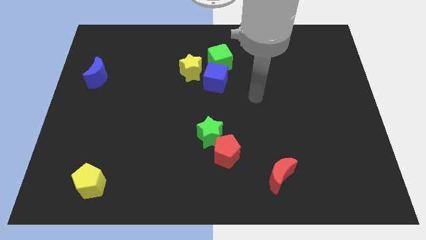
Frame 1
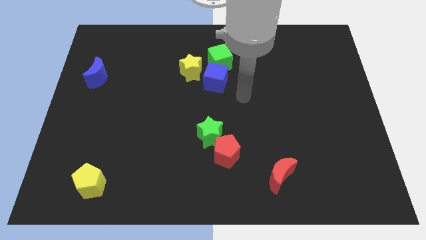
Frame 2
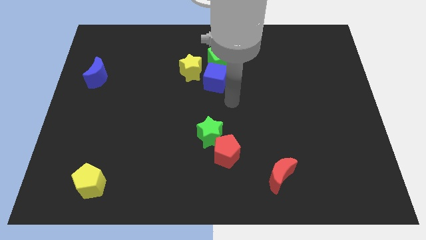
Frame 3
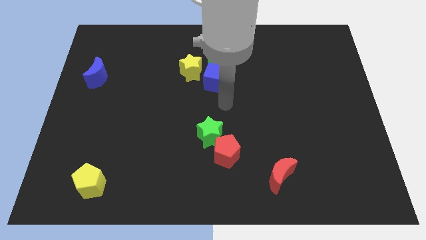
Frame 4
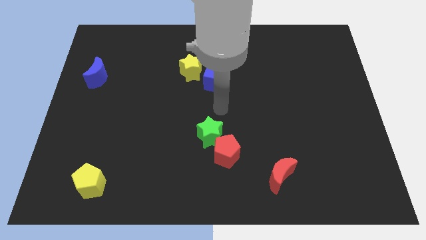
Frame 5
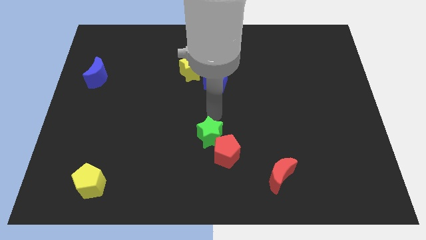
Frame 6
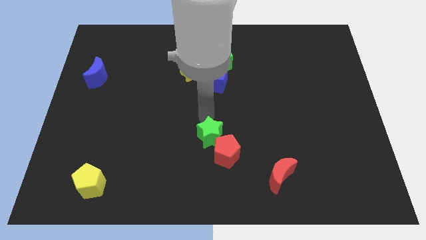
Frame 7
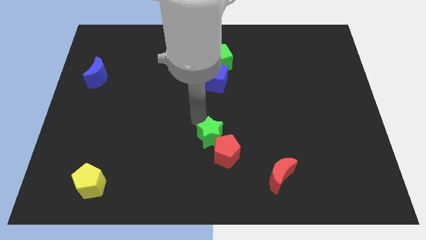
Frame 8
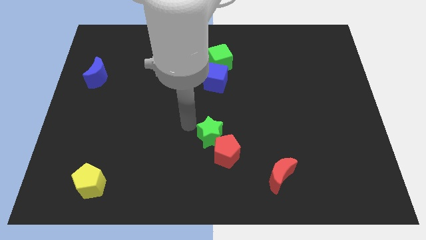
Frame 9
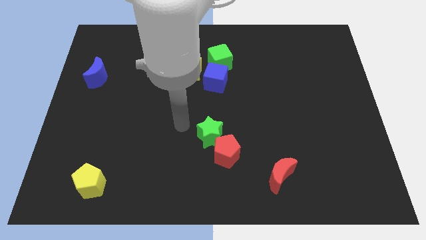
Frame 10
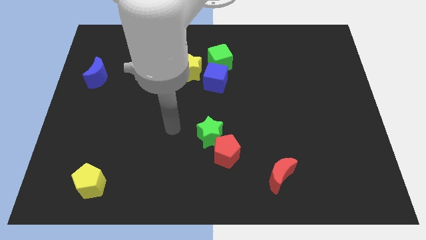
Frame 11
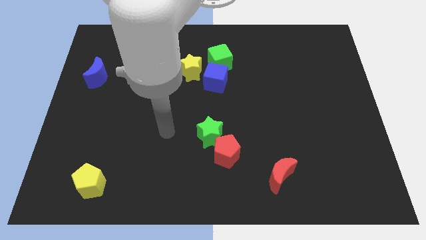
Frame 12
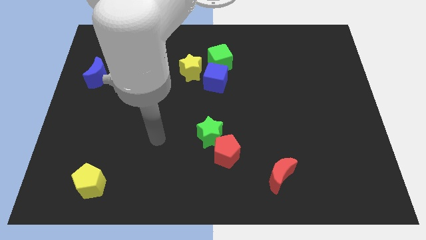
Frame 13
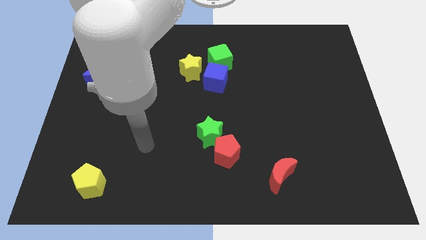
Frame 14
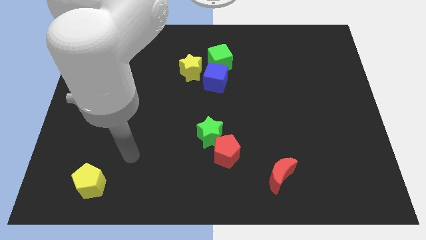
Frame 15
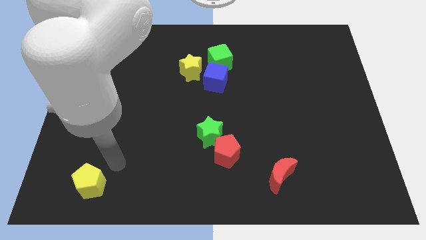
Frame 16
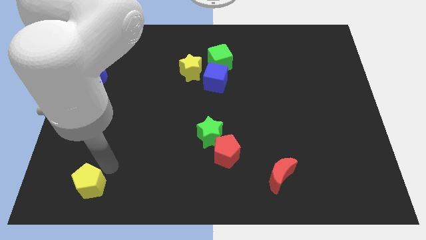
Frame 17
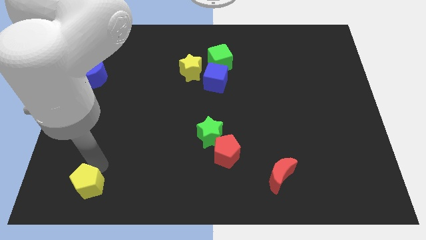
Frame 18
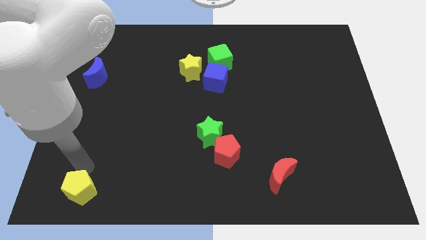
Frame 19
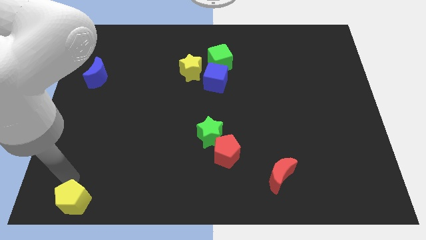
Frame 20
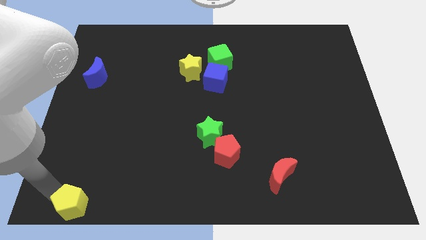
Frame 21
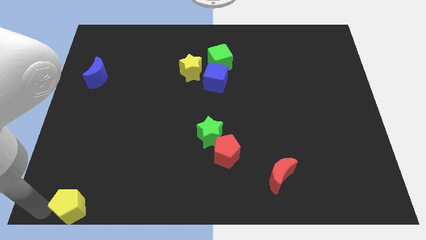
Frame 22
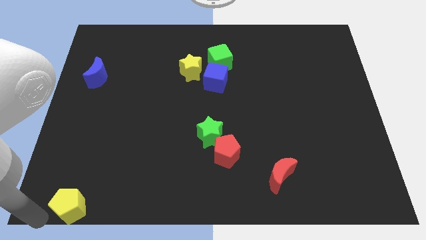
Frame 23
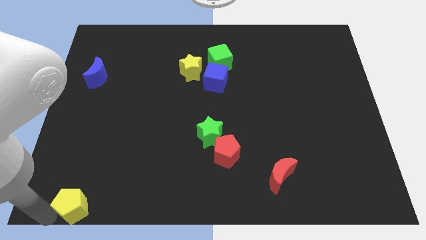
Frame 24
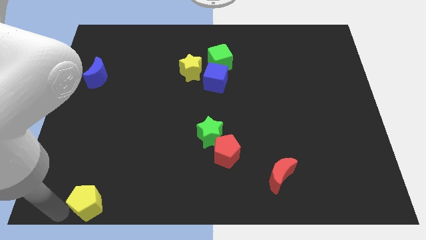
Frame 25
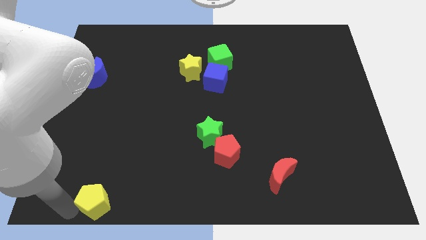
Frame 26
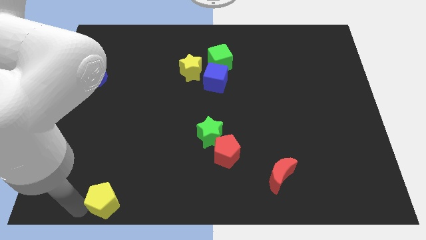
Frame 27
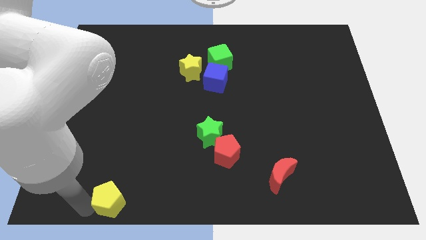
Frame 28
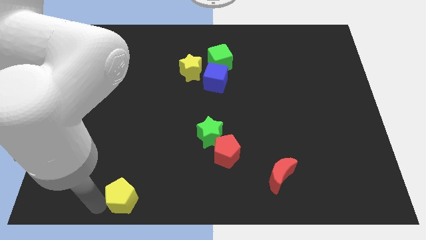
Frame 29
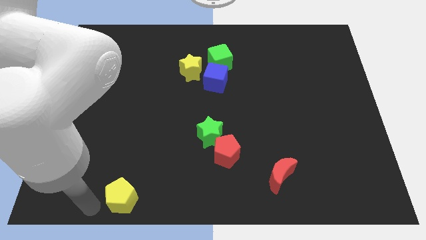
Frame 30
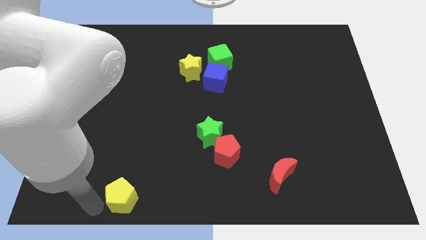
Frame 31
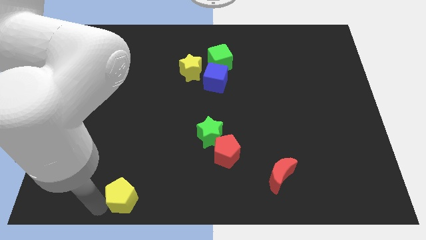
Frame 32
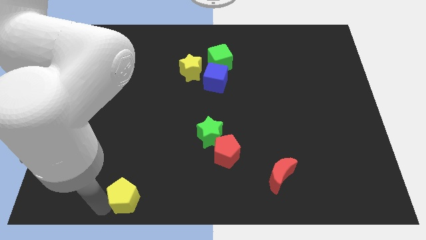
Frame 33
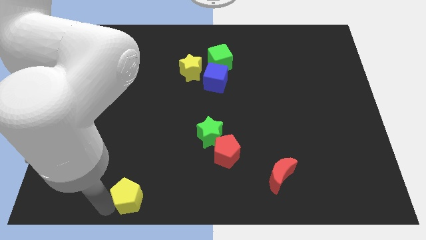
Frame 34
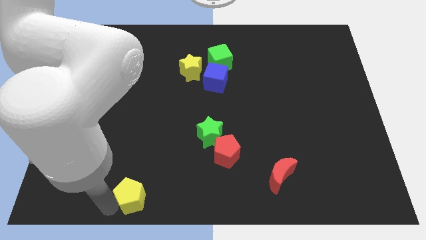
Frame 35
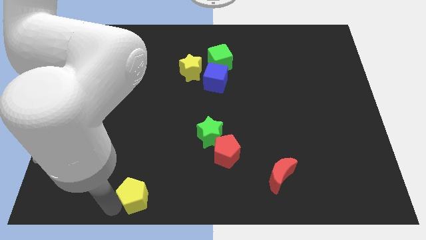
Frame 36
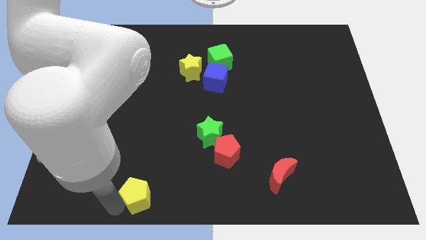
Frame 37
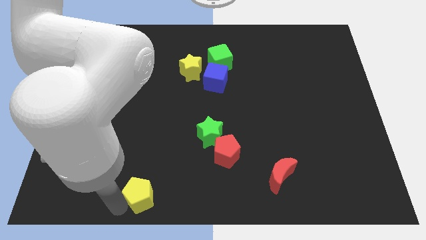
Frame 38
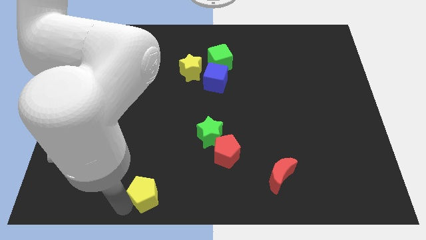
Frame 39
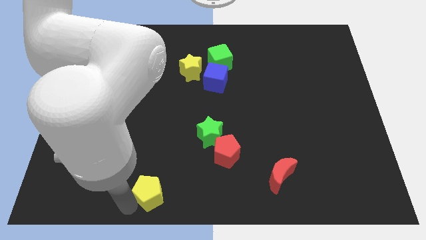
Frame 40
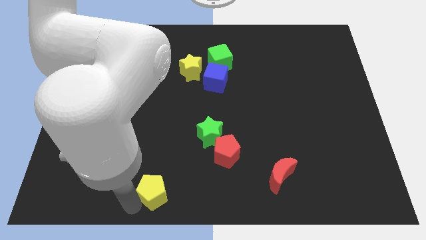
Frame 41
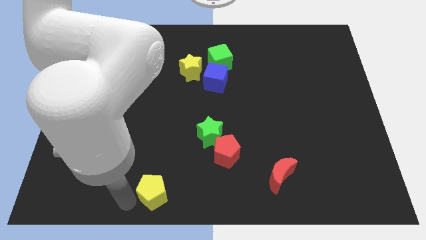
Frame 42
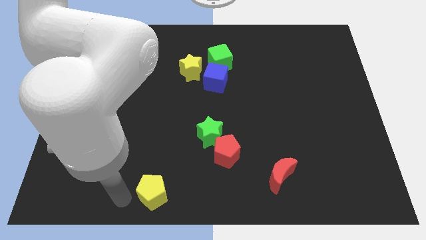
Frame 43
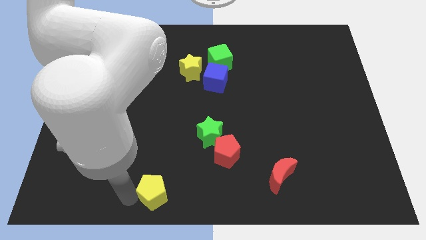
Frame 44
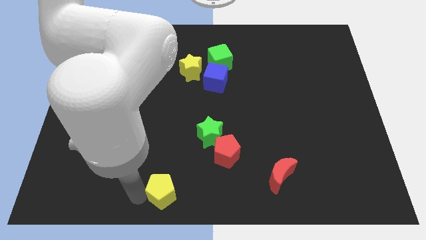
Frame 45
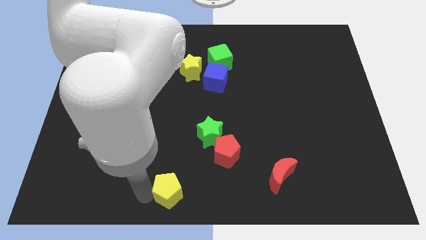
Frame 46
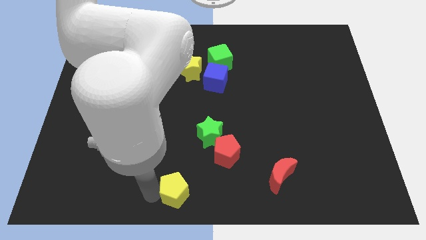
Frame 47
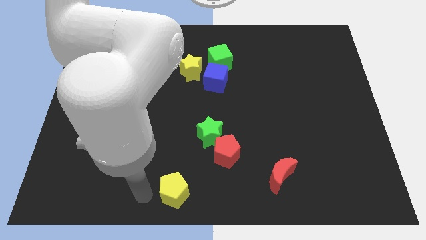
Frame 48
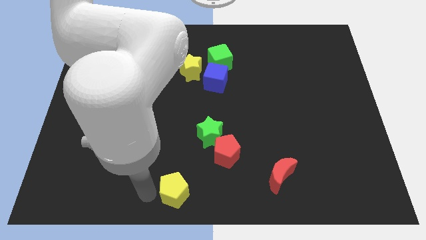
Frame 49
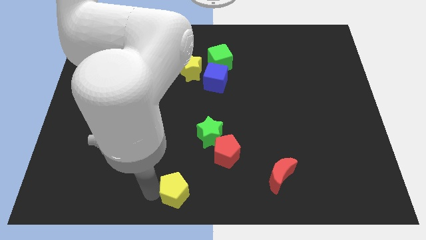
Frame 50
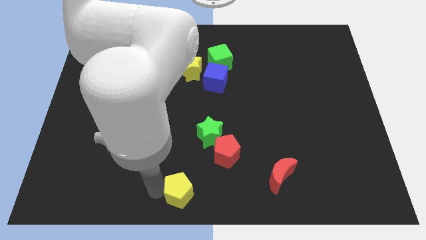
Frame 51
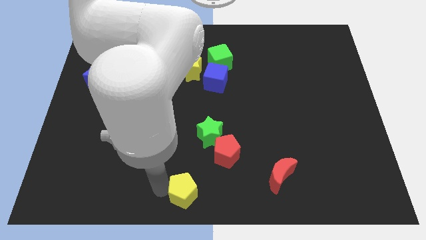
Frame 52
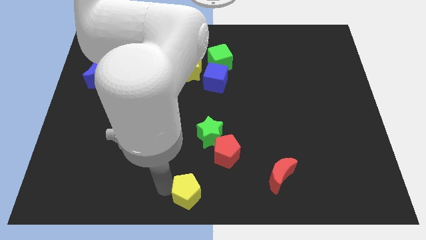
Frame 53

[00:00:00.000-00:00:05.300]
slide the yellow pentagon right

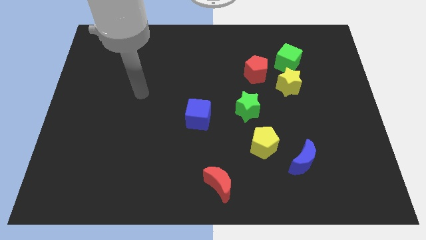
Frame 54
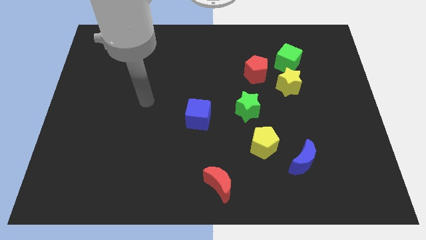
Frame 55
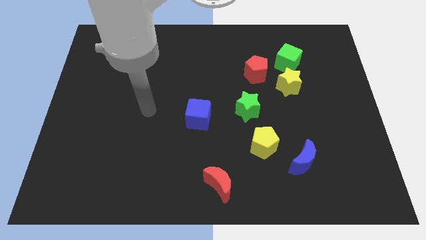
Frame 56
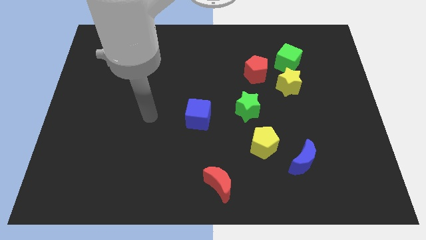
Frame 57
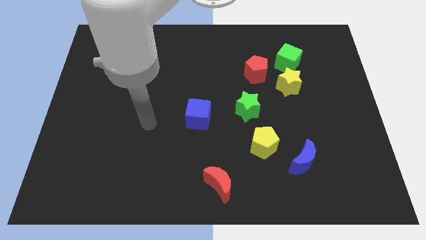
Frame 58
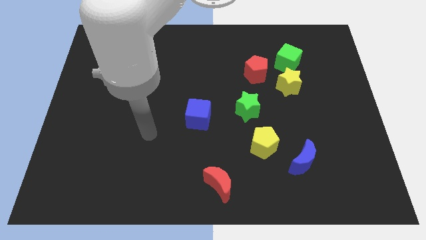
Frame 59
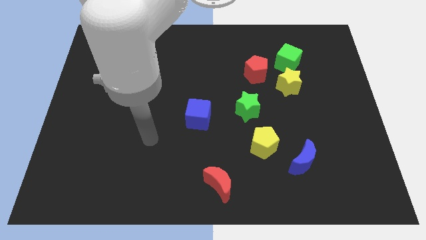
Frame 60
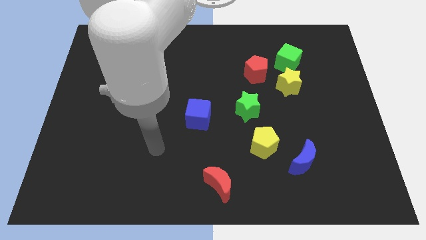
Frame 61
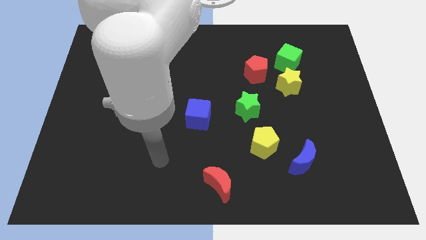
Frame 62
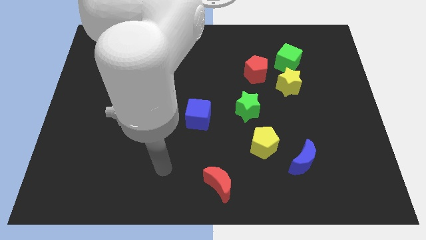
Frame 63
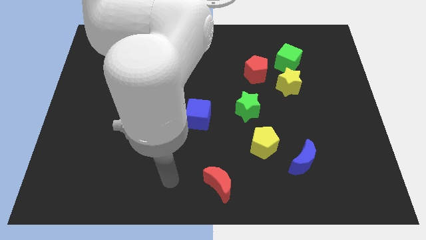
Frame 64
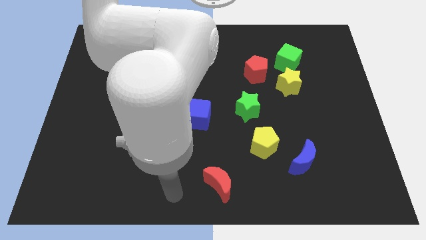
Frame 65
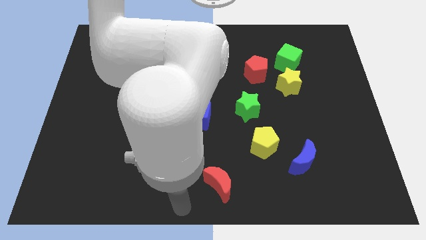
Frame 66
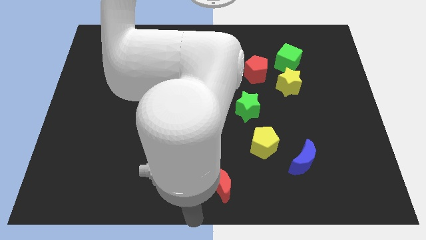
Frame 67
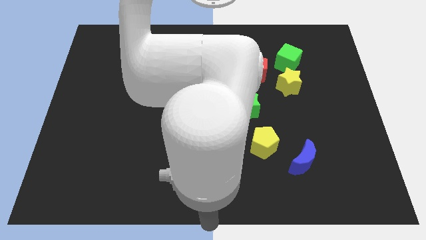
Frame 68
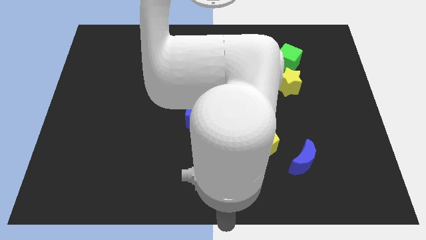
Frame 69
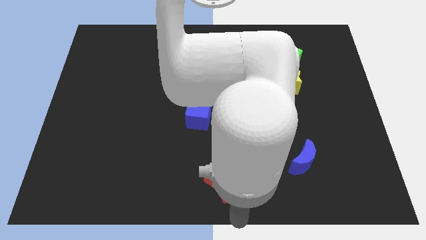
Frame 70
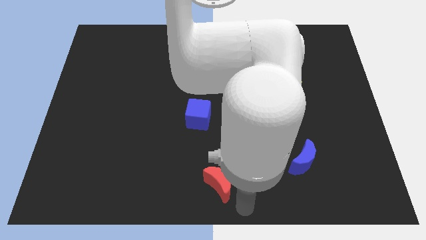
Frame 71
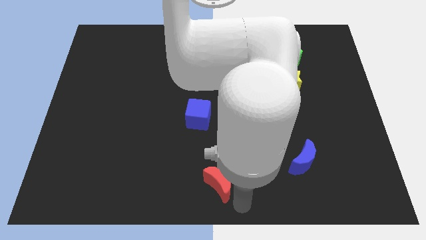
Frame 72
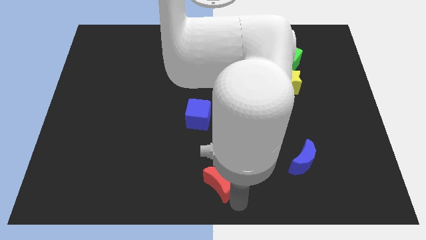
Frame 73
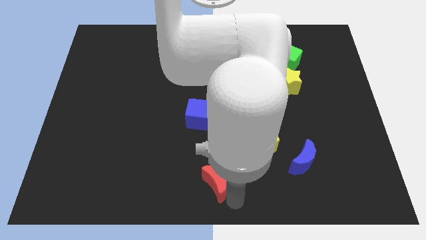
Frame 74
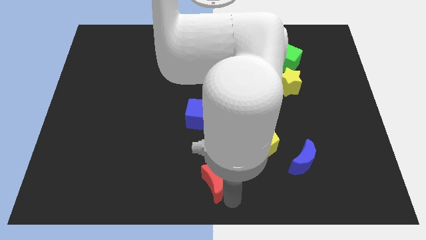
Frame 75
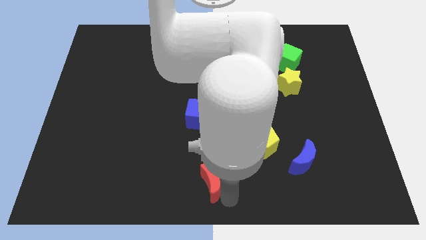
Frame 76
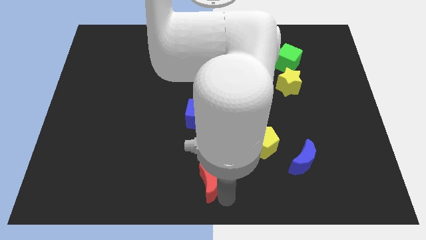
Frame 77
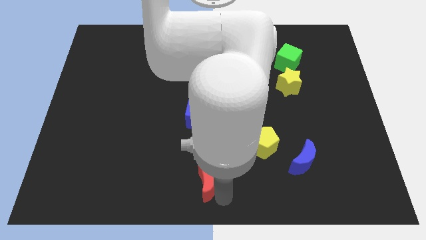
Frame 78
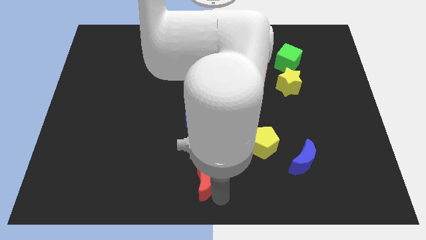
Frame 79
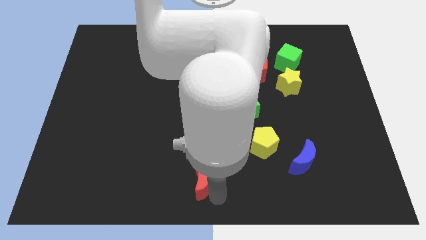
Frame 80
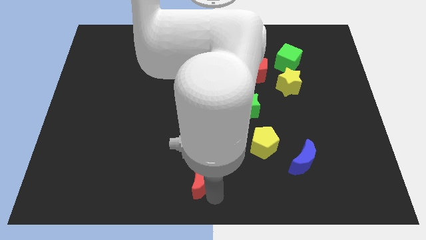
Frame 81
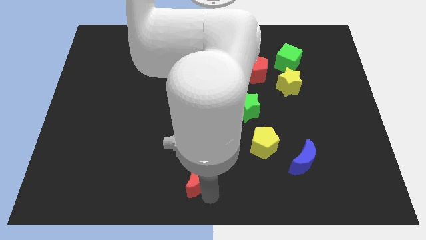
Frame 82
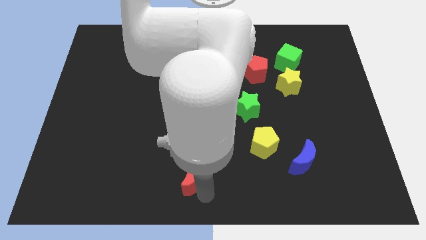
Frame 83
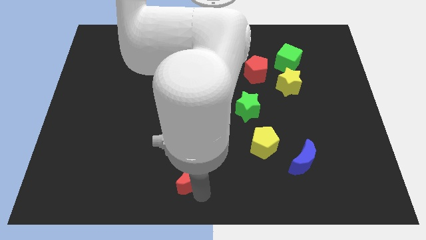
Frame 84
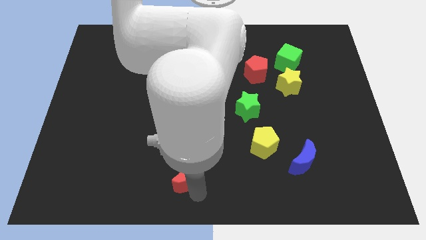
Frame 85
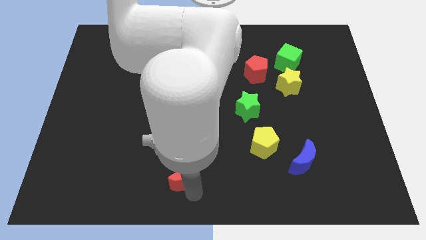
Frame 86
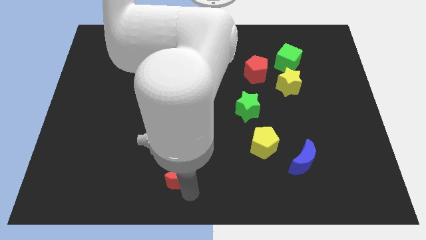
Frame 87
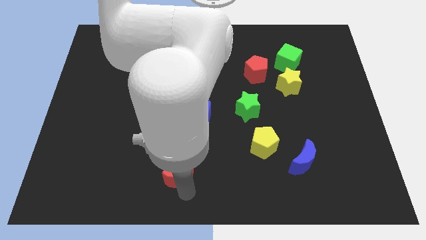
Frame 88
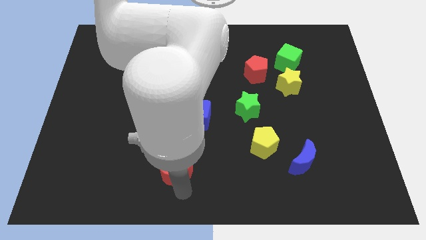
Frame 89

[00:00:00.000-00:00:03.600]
slide the red moon slightly upwards and left
